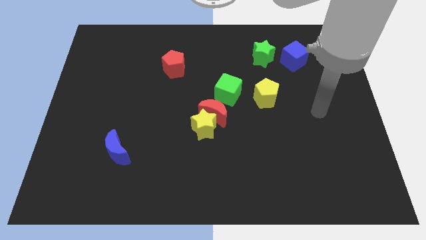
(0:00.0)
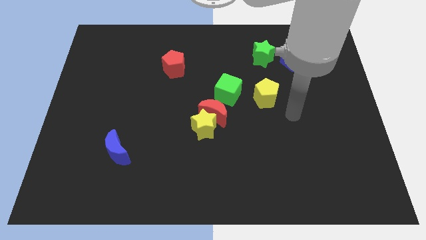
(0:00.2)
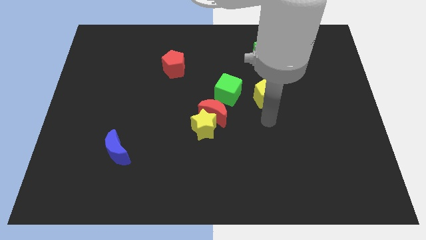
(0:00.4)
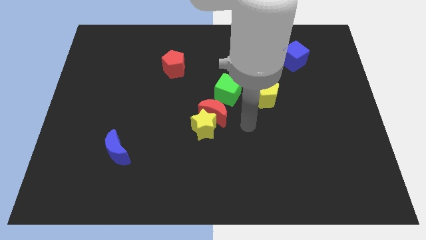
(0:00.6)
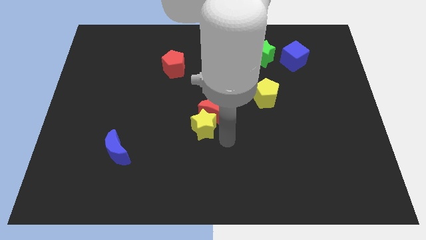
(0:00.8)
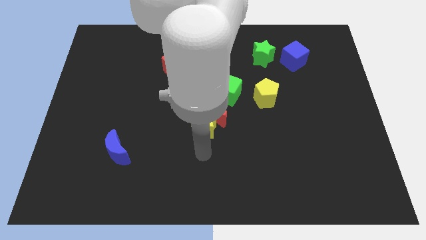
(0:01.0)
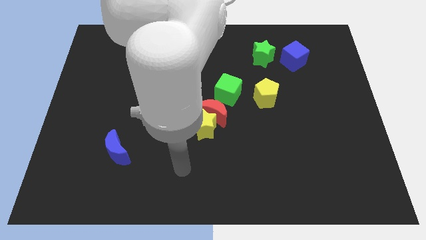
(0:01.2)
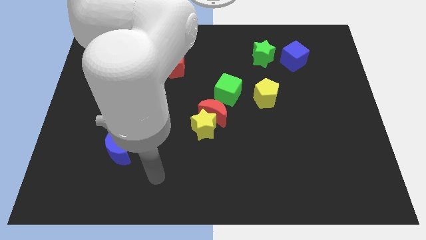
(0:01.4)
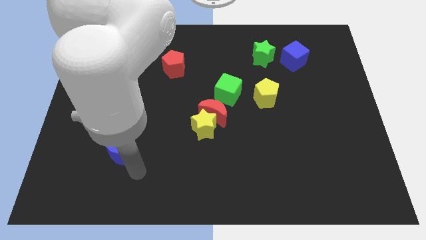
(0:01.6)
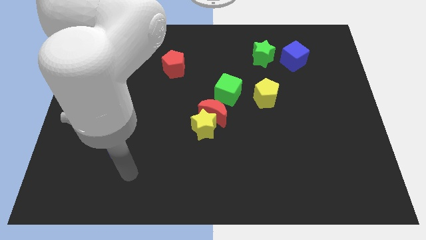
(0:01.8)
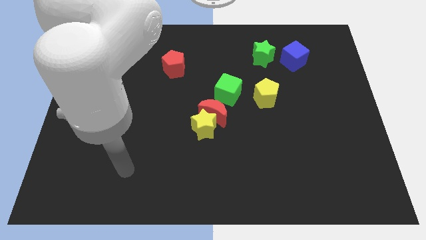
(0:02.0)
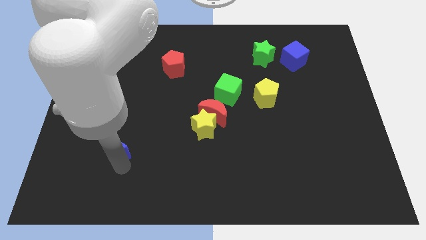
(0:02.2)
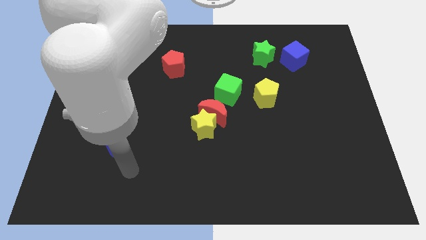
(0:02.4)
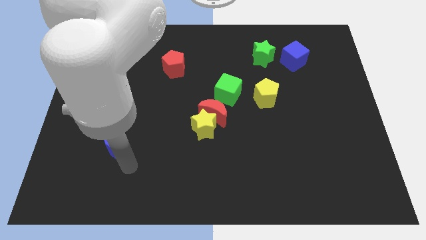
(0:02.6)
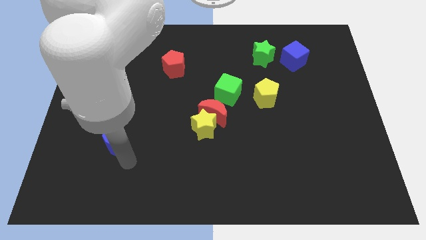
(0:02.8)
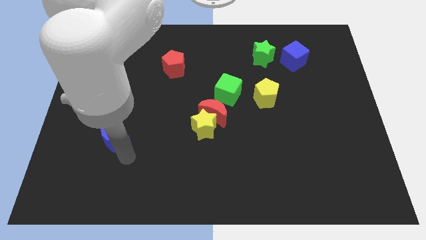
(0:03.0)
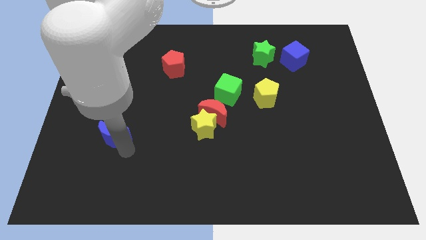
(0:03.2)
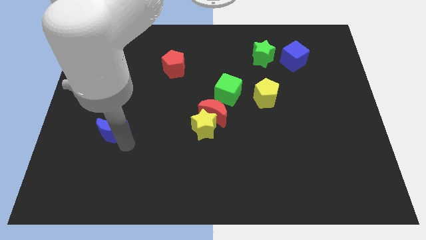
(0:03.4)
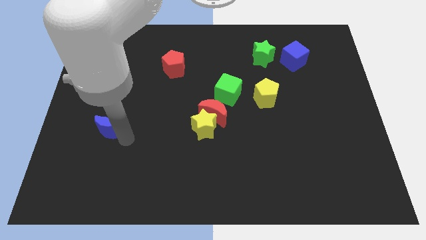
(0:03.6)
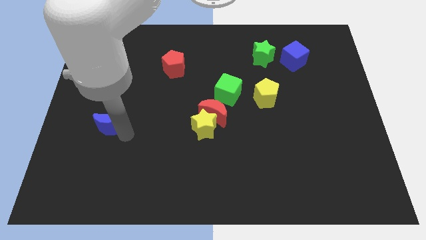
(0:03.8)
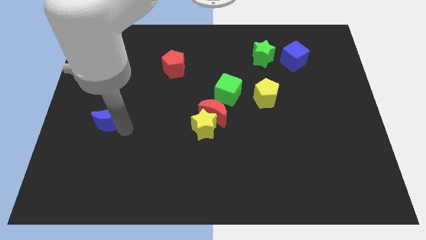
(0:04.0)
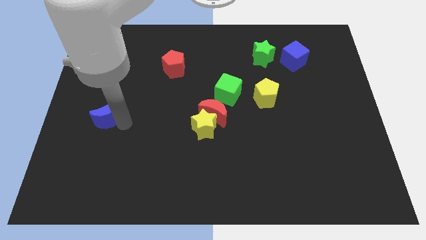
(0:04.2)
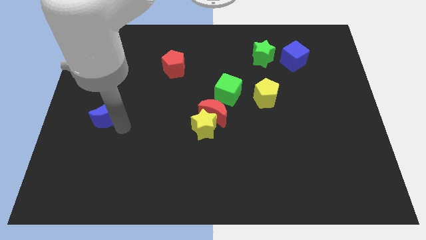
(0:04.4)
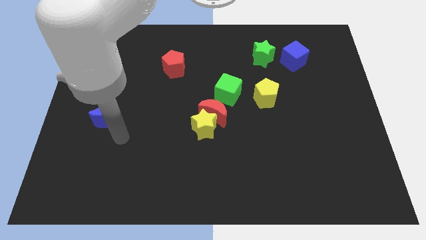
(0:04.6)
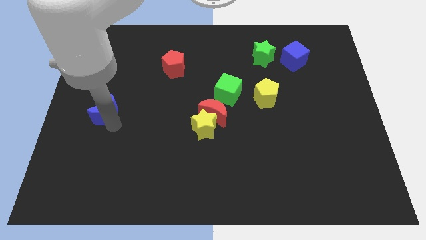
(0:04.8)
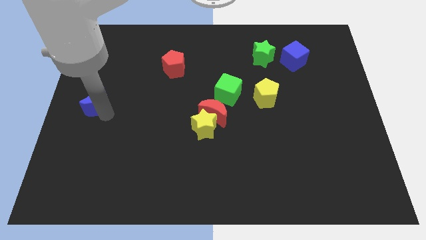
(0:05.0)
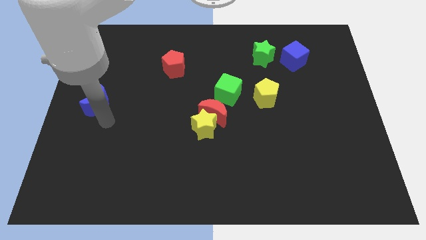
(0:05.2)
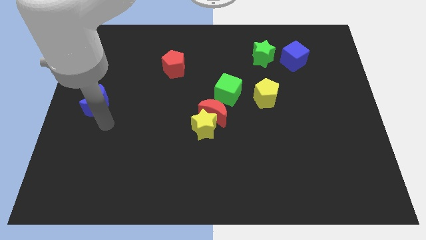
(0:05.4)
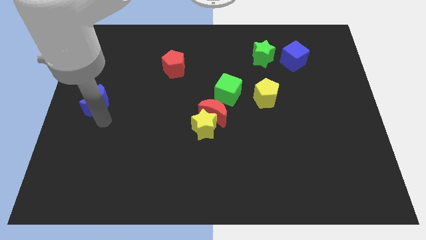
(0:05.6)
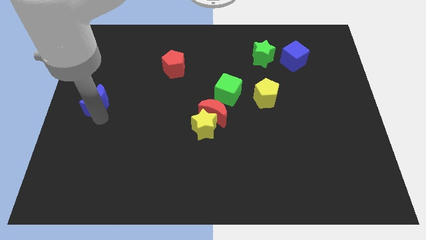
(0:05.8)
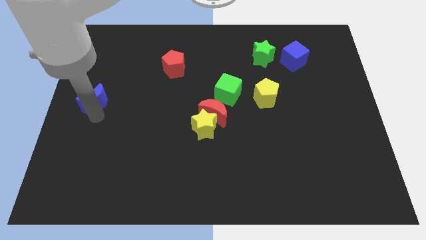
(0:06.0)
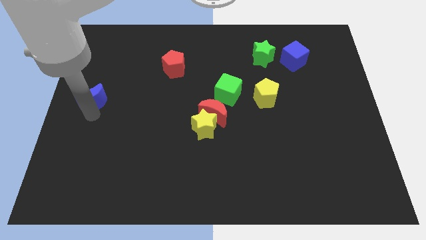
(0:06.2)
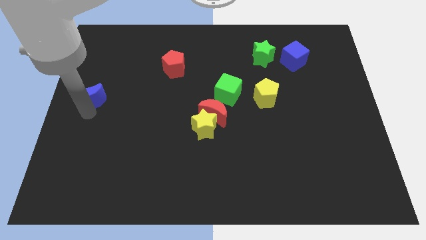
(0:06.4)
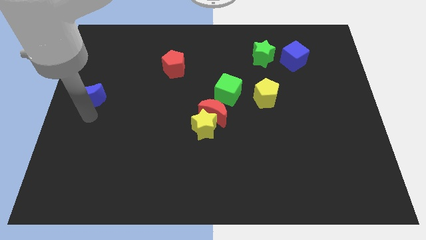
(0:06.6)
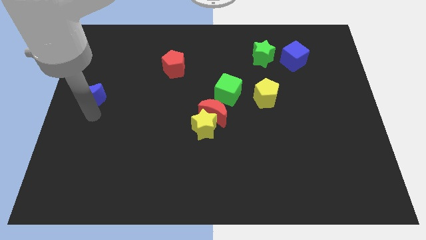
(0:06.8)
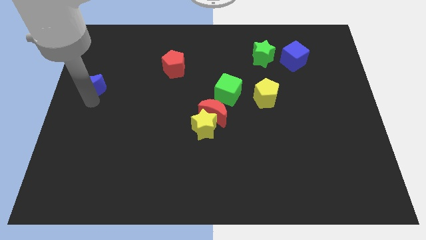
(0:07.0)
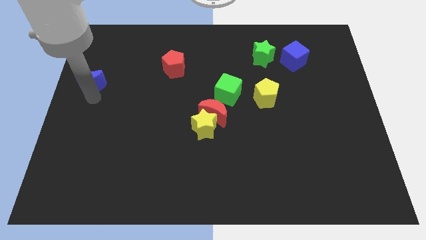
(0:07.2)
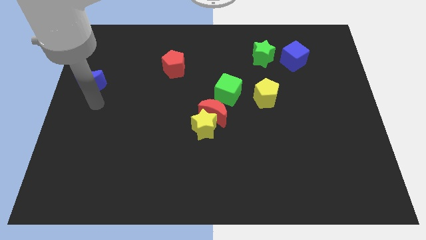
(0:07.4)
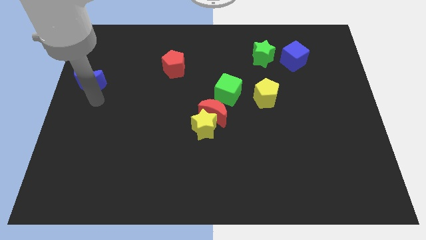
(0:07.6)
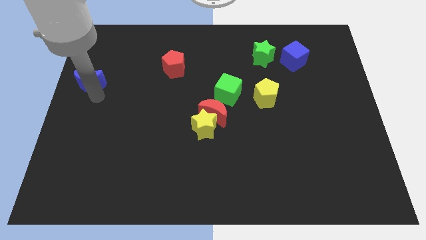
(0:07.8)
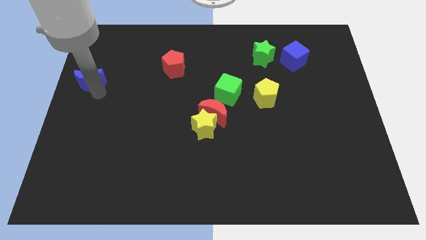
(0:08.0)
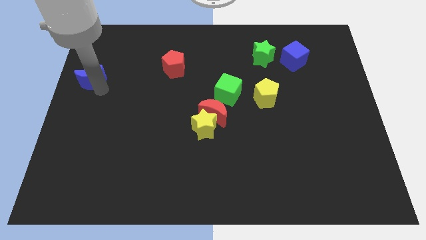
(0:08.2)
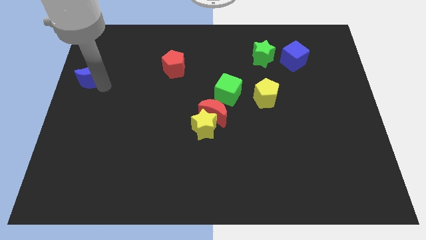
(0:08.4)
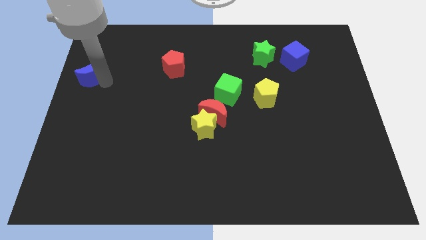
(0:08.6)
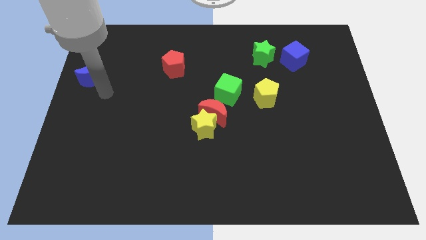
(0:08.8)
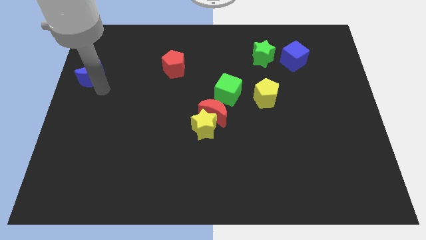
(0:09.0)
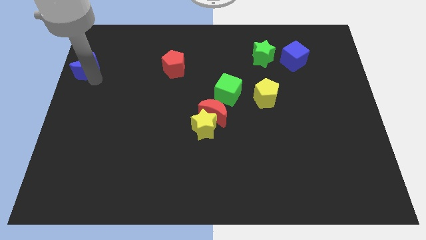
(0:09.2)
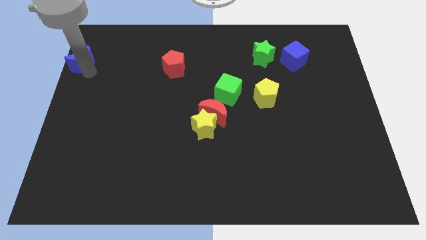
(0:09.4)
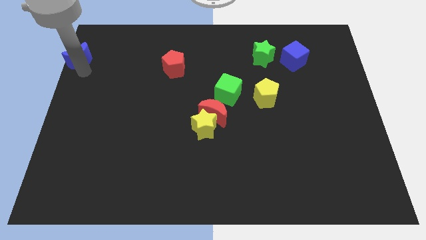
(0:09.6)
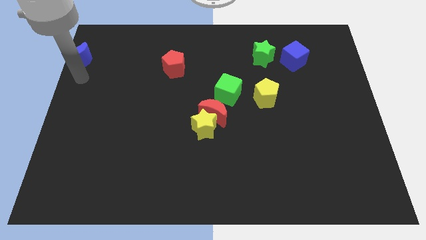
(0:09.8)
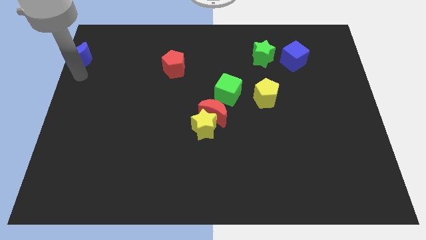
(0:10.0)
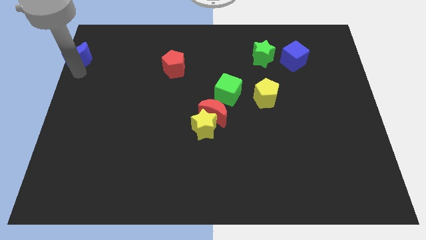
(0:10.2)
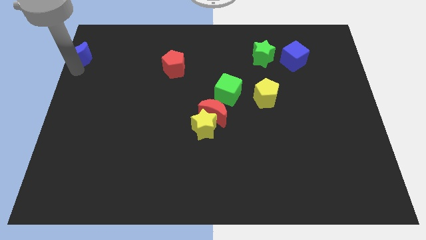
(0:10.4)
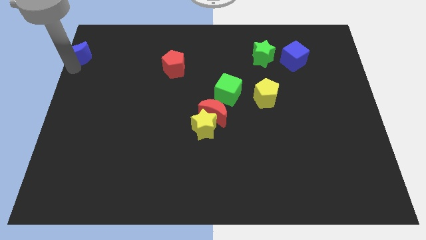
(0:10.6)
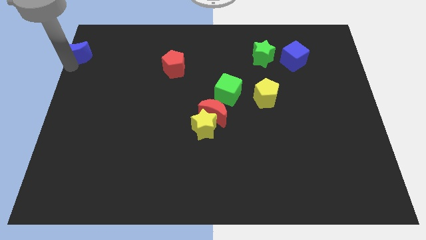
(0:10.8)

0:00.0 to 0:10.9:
put the blue moon to the top left

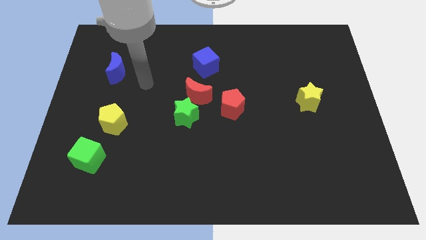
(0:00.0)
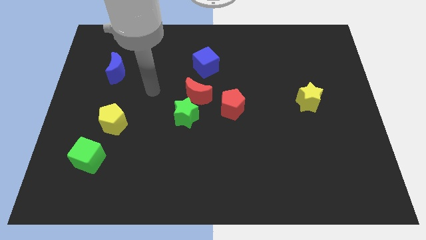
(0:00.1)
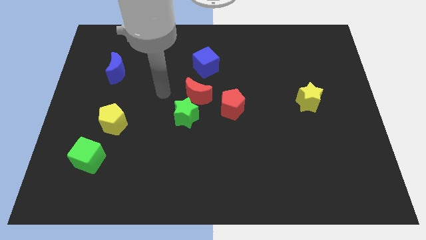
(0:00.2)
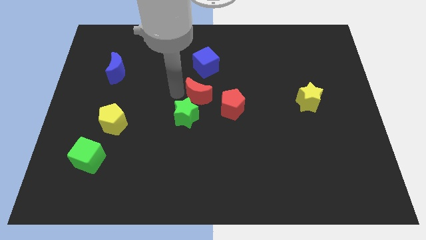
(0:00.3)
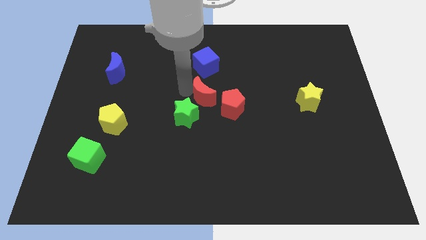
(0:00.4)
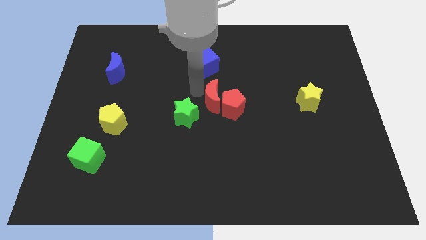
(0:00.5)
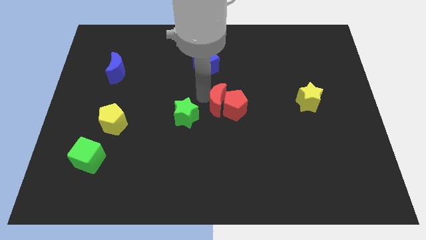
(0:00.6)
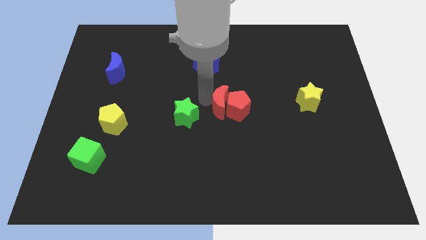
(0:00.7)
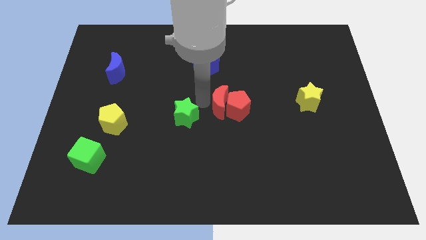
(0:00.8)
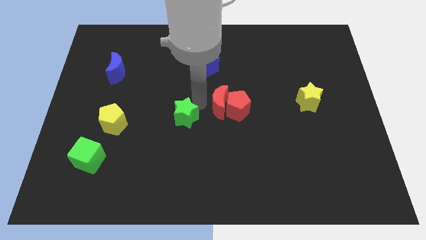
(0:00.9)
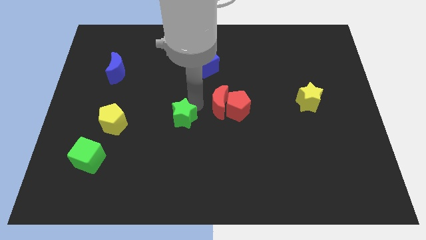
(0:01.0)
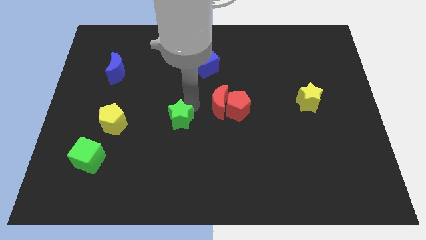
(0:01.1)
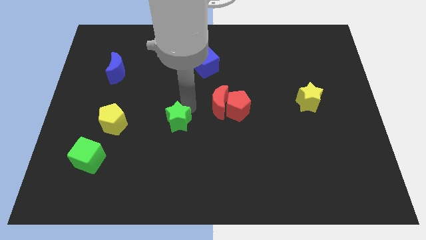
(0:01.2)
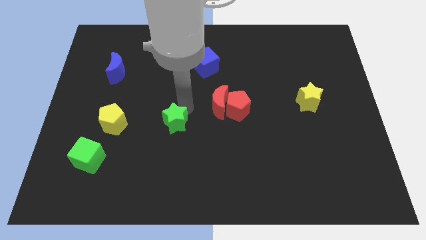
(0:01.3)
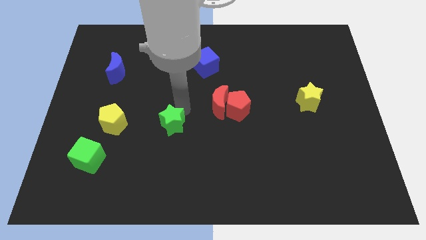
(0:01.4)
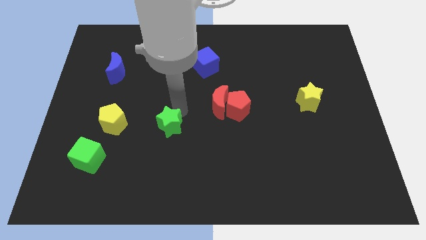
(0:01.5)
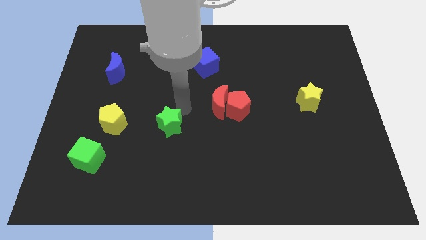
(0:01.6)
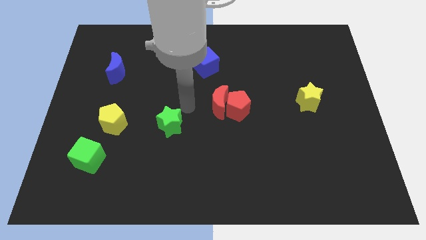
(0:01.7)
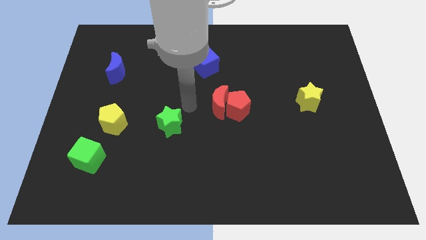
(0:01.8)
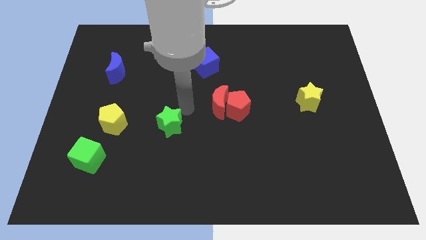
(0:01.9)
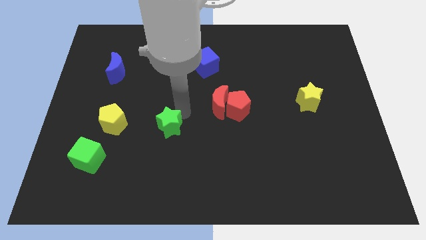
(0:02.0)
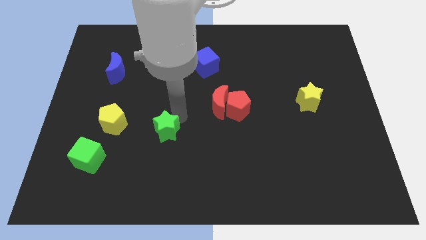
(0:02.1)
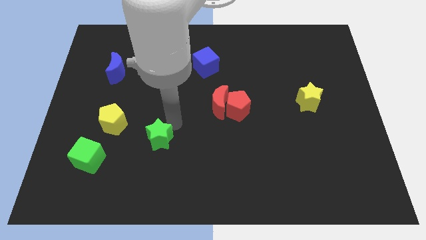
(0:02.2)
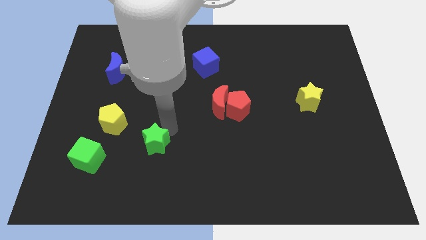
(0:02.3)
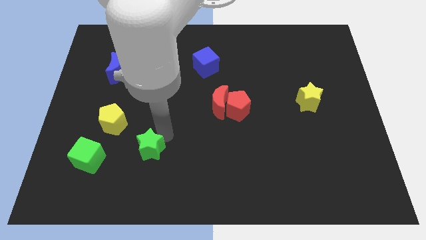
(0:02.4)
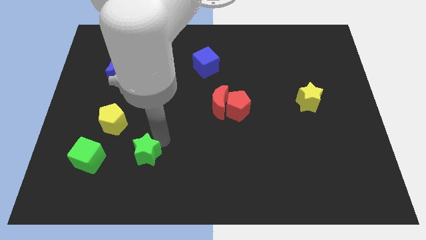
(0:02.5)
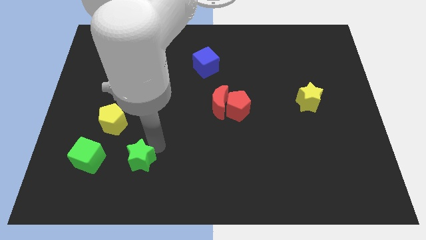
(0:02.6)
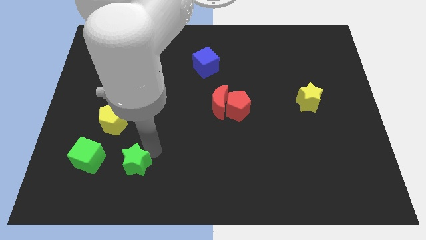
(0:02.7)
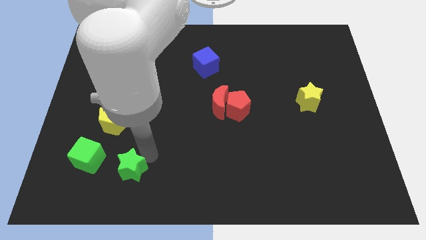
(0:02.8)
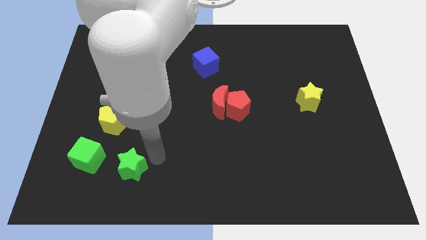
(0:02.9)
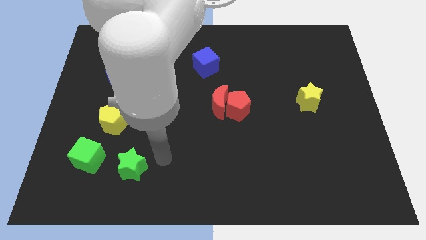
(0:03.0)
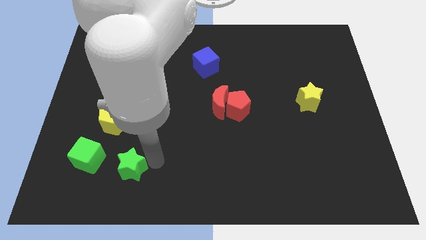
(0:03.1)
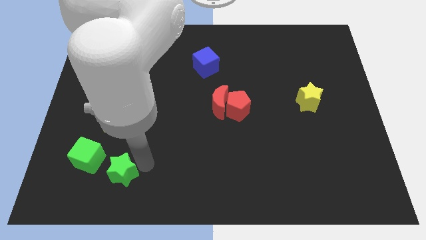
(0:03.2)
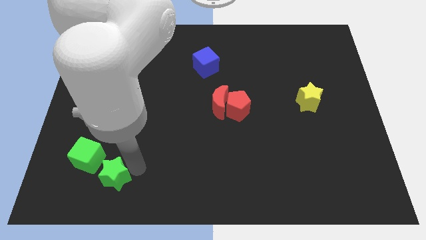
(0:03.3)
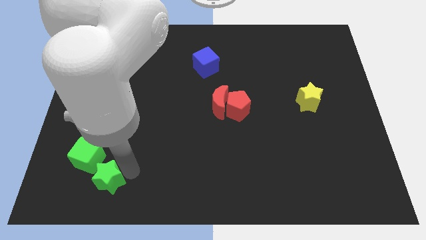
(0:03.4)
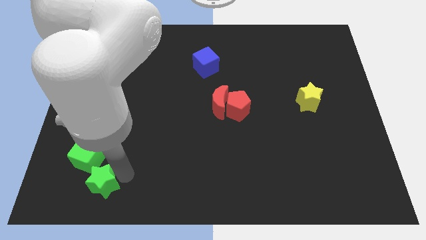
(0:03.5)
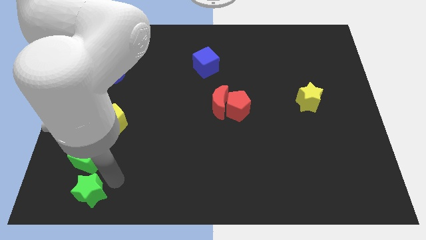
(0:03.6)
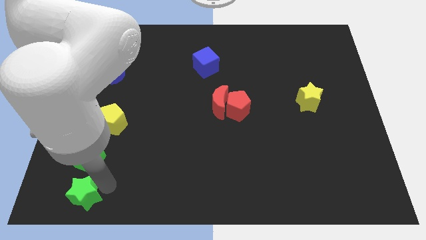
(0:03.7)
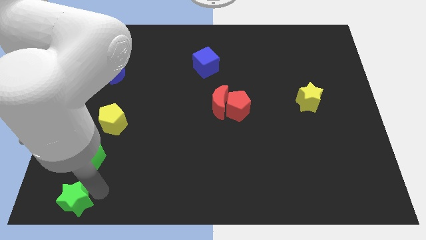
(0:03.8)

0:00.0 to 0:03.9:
move the green star to the bottom left
